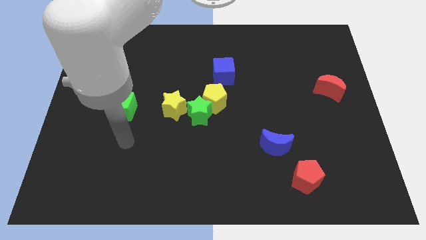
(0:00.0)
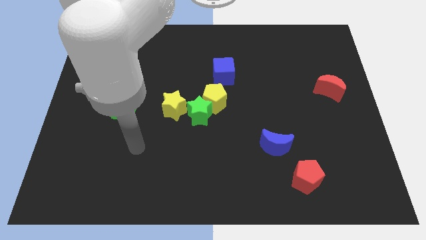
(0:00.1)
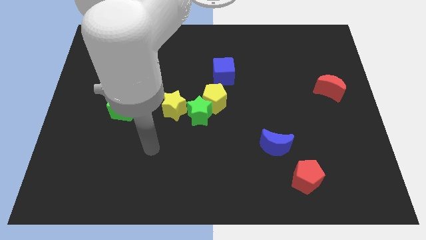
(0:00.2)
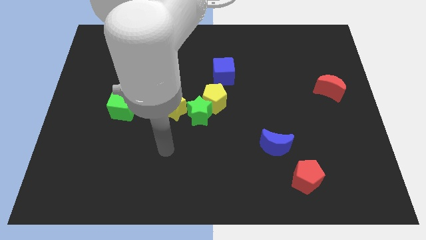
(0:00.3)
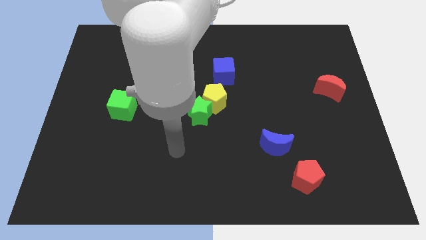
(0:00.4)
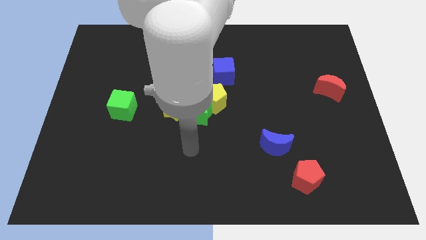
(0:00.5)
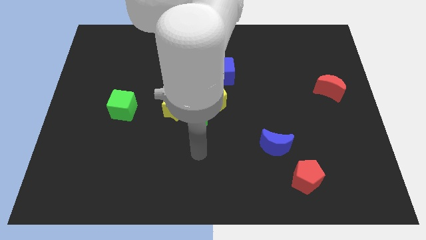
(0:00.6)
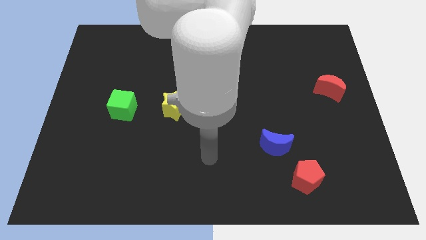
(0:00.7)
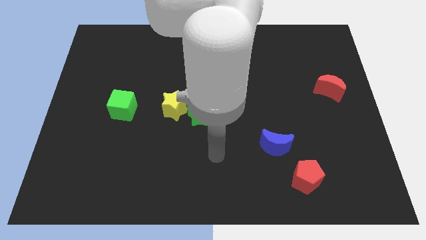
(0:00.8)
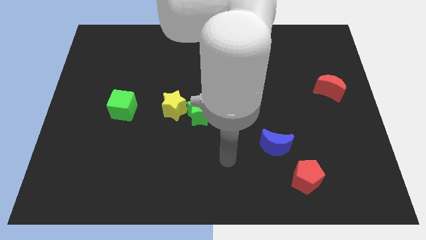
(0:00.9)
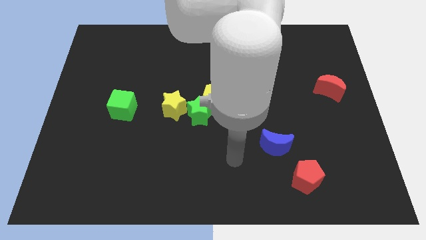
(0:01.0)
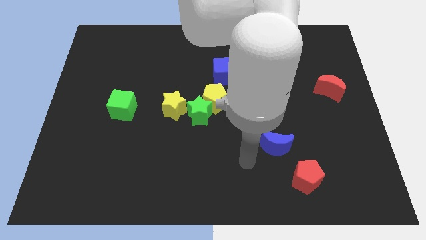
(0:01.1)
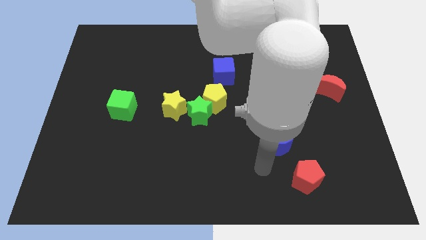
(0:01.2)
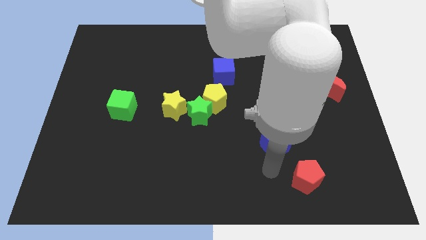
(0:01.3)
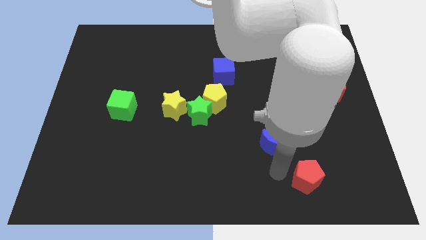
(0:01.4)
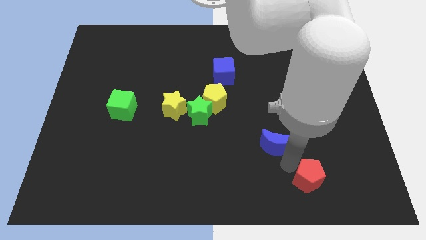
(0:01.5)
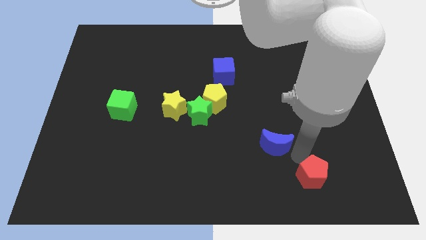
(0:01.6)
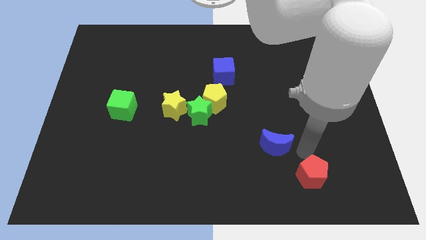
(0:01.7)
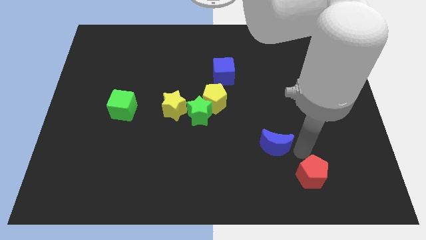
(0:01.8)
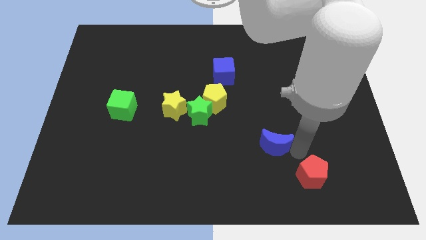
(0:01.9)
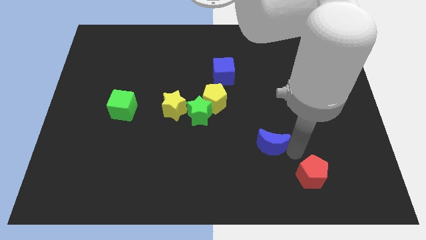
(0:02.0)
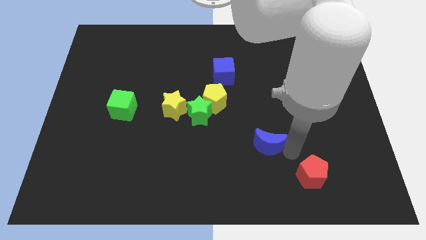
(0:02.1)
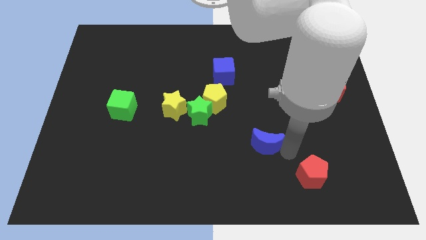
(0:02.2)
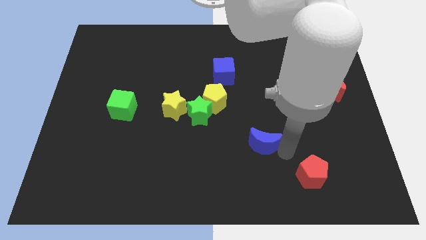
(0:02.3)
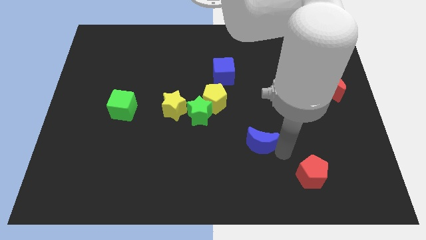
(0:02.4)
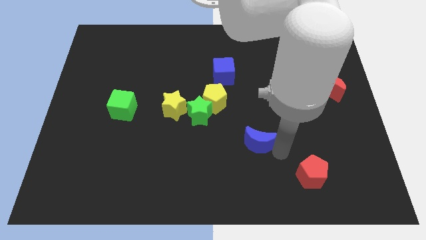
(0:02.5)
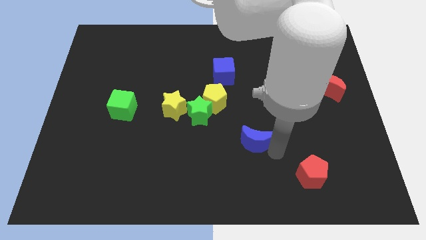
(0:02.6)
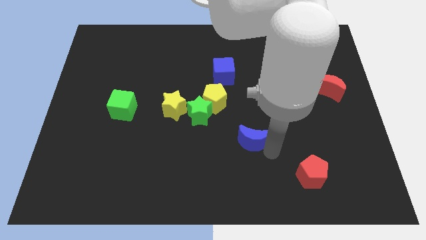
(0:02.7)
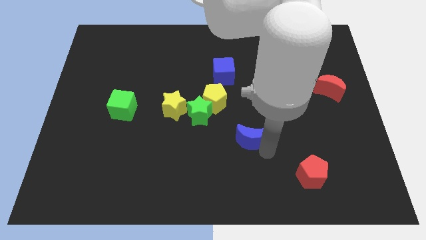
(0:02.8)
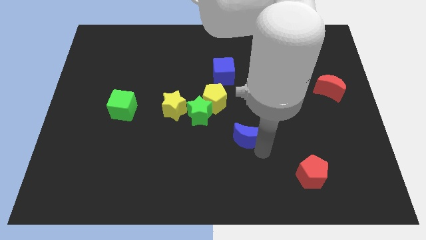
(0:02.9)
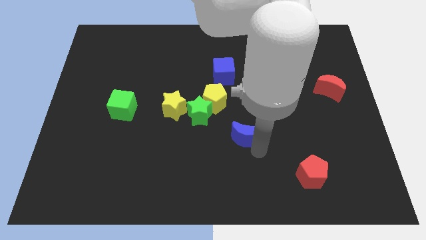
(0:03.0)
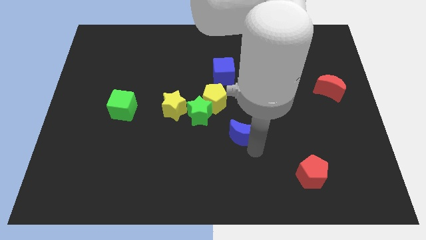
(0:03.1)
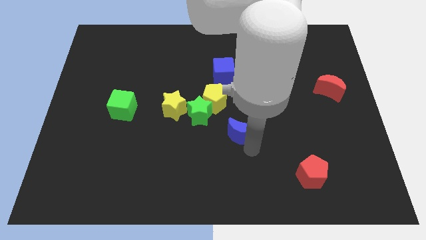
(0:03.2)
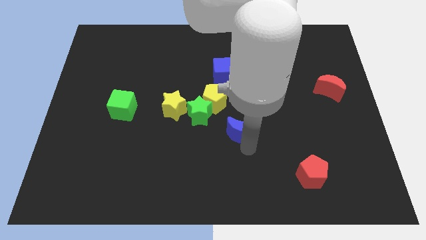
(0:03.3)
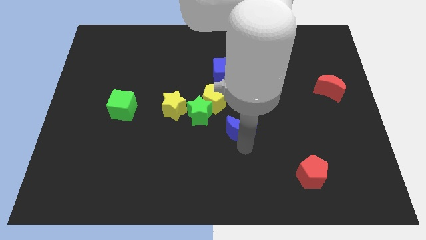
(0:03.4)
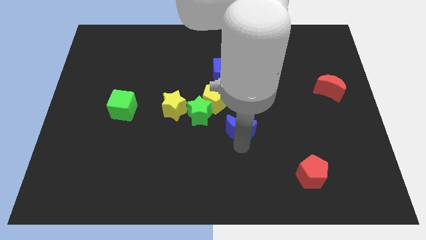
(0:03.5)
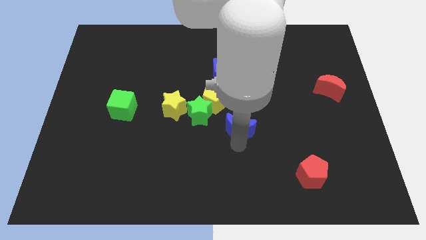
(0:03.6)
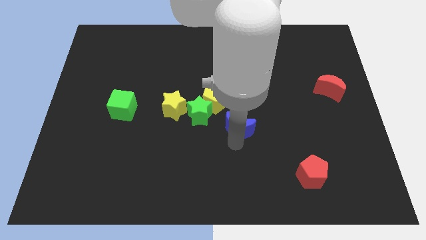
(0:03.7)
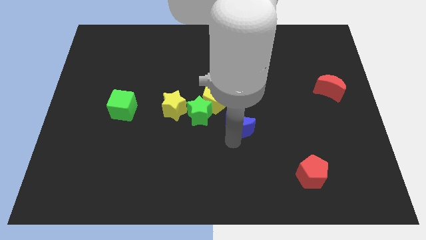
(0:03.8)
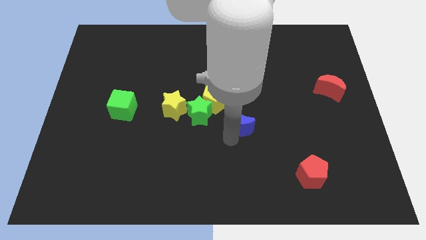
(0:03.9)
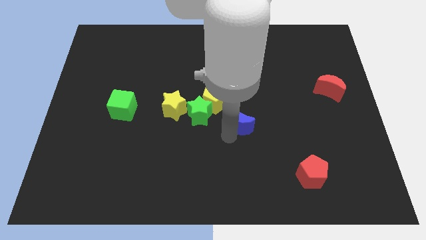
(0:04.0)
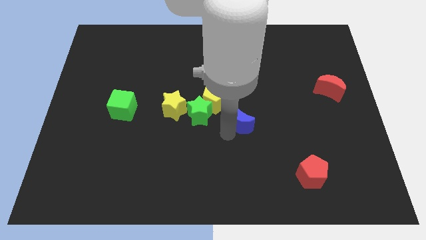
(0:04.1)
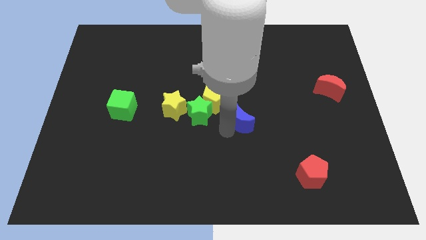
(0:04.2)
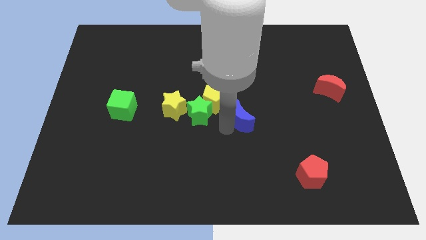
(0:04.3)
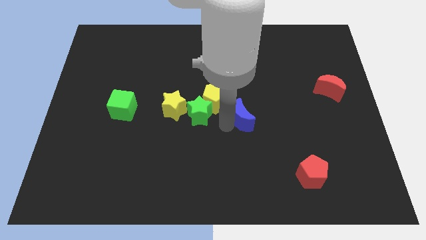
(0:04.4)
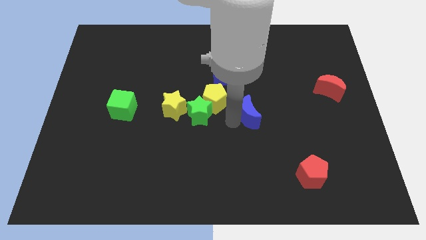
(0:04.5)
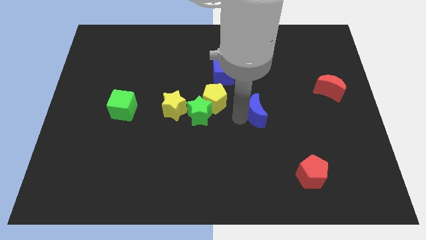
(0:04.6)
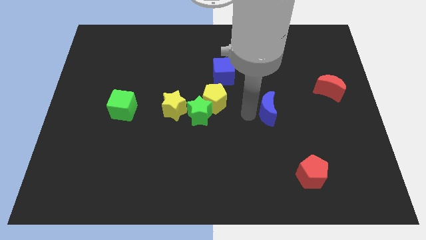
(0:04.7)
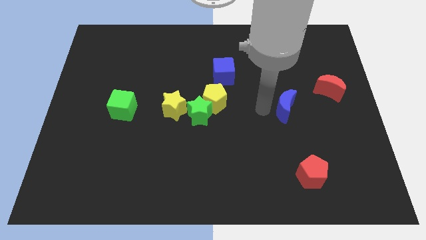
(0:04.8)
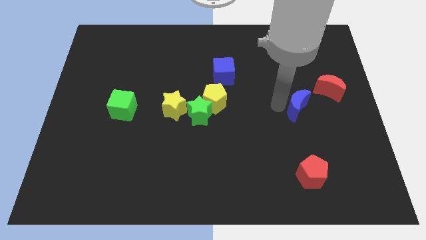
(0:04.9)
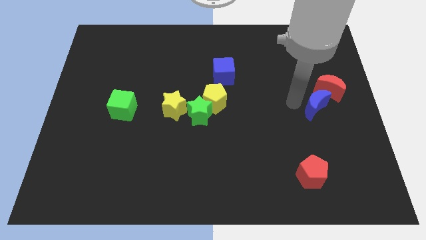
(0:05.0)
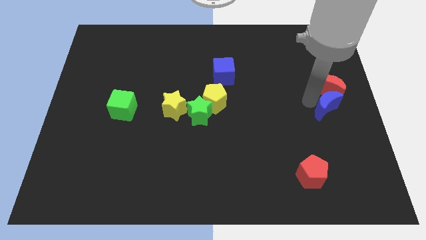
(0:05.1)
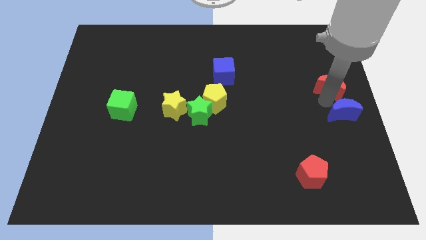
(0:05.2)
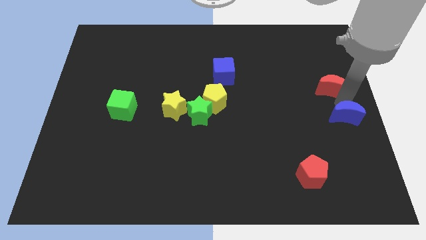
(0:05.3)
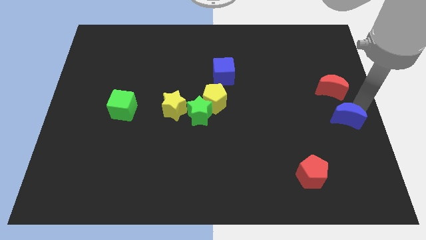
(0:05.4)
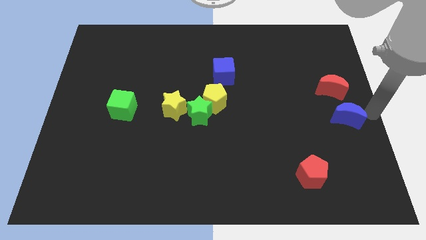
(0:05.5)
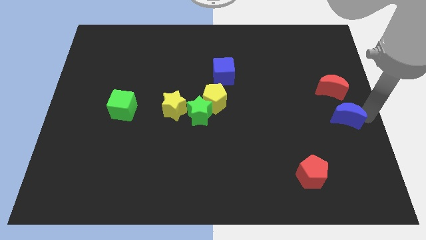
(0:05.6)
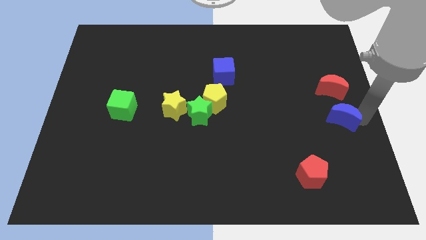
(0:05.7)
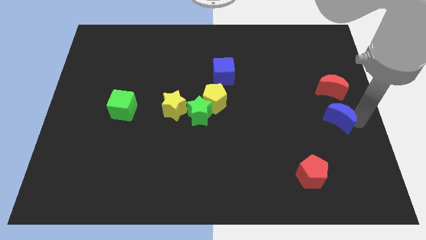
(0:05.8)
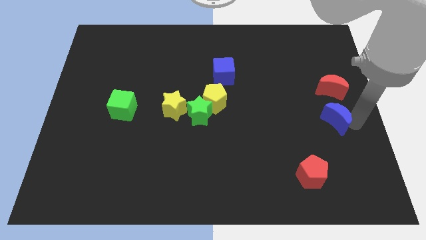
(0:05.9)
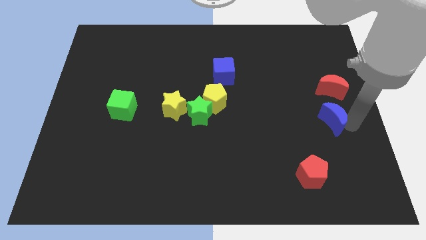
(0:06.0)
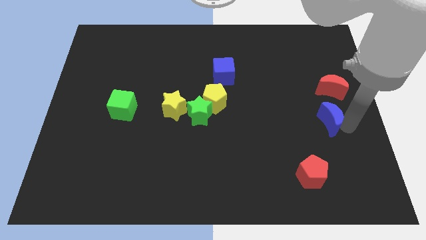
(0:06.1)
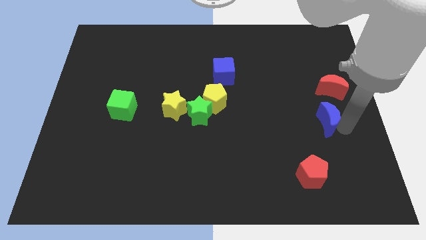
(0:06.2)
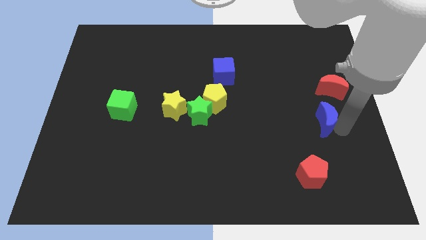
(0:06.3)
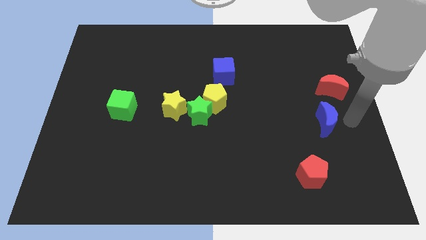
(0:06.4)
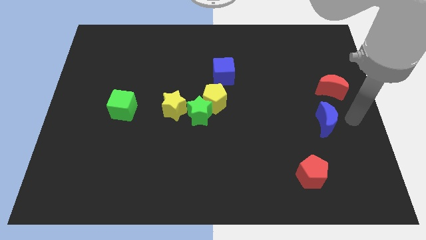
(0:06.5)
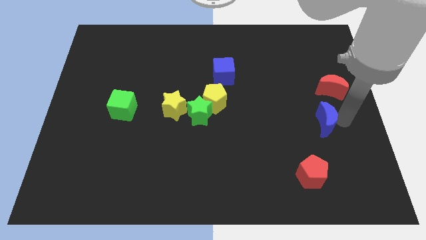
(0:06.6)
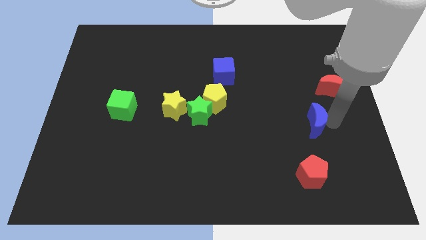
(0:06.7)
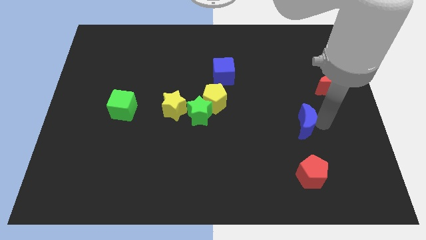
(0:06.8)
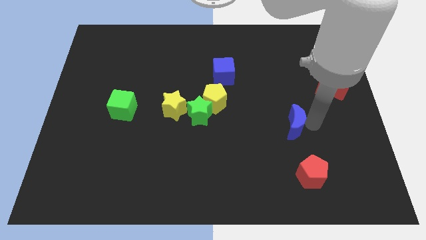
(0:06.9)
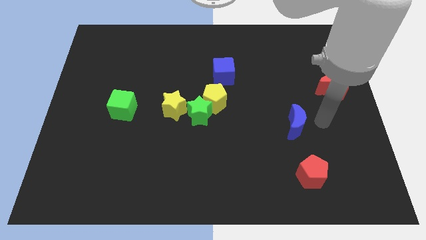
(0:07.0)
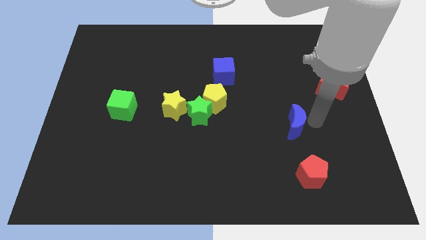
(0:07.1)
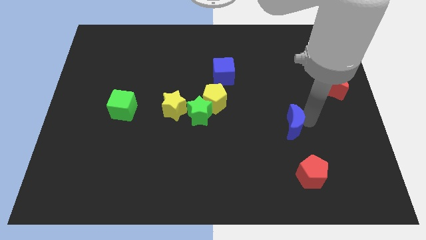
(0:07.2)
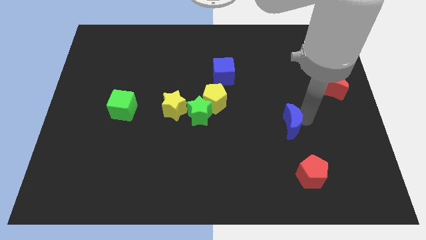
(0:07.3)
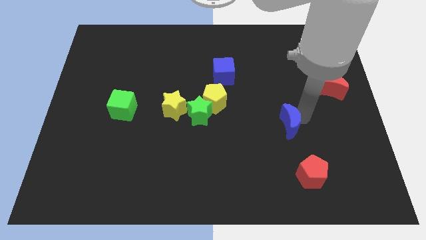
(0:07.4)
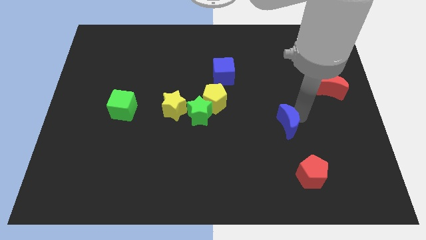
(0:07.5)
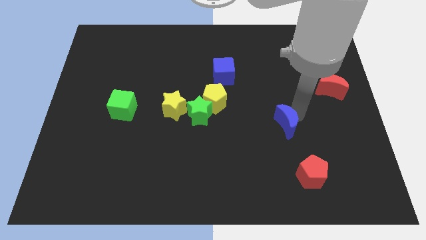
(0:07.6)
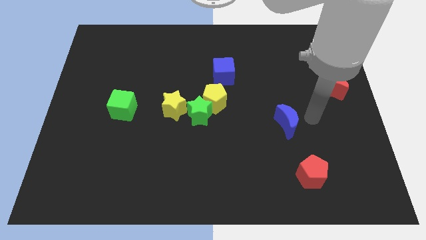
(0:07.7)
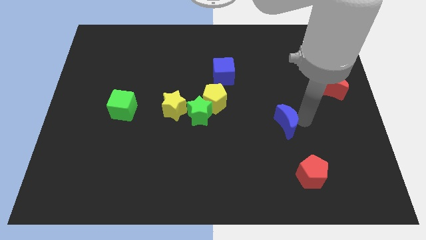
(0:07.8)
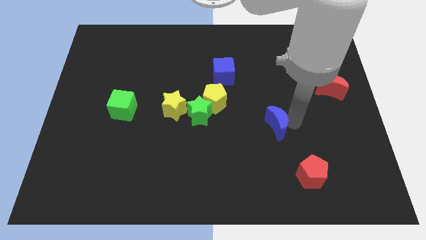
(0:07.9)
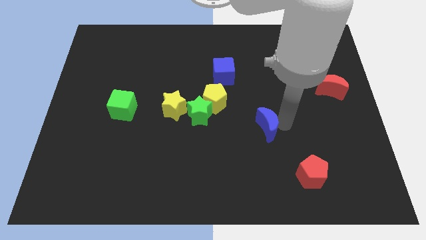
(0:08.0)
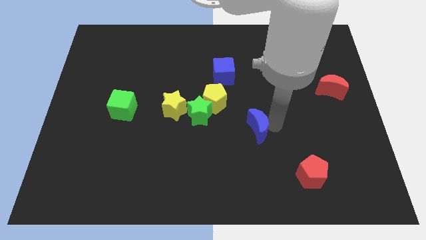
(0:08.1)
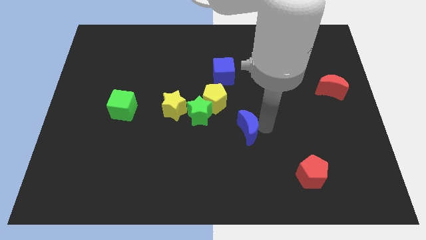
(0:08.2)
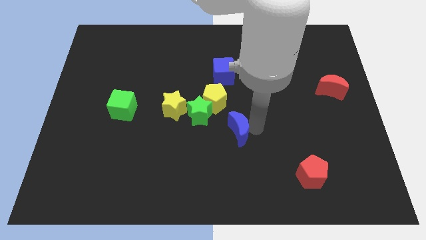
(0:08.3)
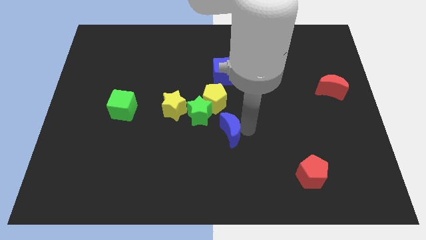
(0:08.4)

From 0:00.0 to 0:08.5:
slide the blue moon below the yellow pentagon
